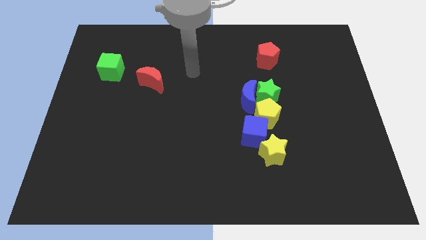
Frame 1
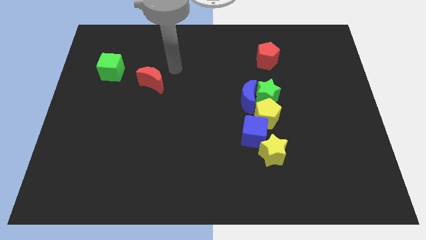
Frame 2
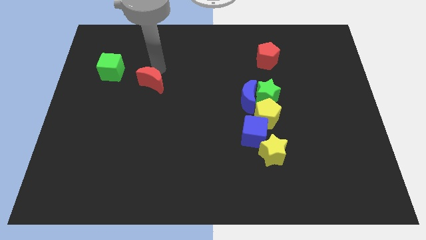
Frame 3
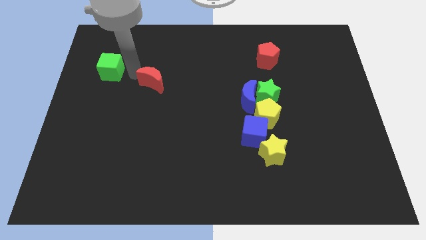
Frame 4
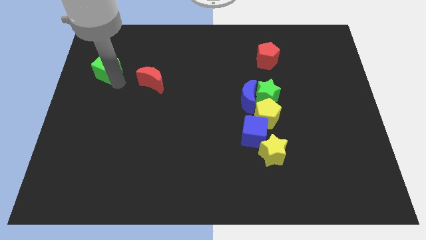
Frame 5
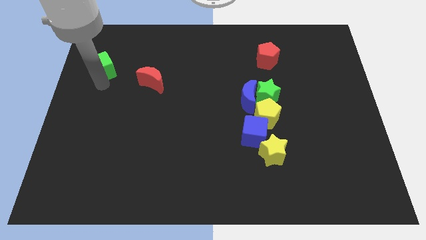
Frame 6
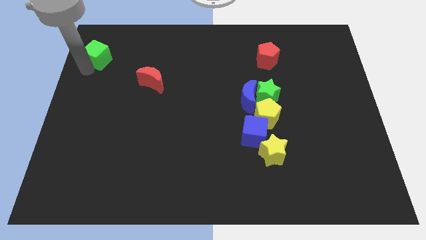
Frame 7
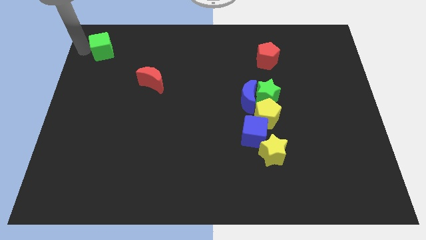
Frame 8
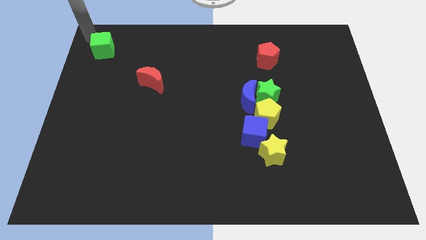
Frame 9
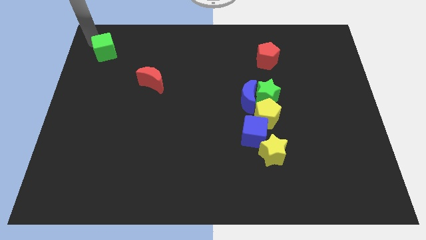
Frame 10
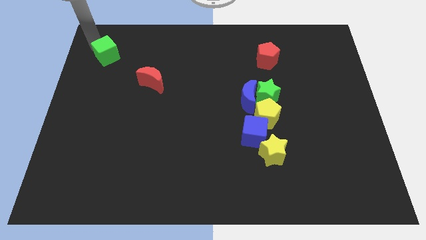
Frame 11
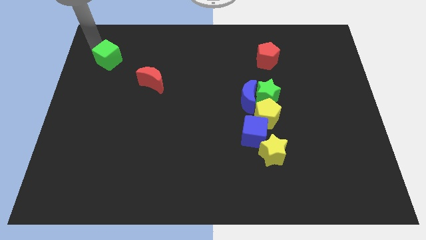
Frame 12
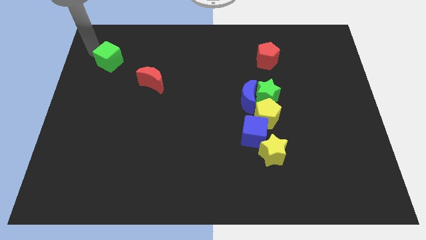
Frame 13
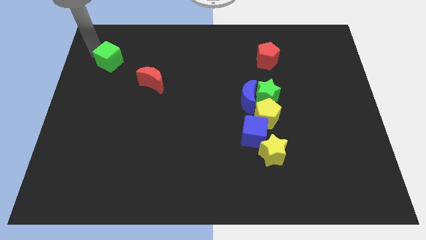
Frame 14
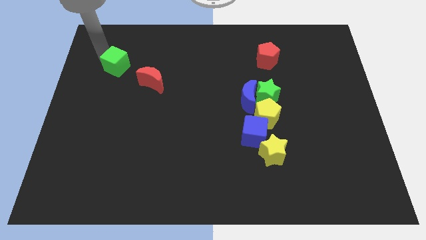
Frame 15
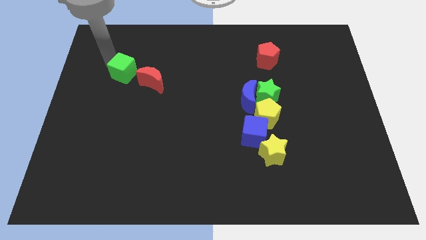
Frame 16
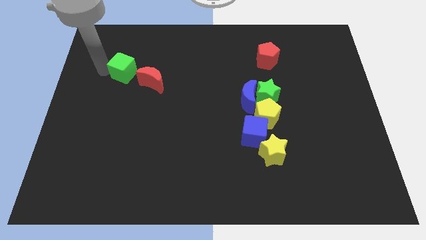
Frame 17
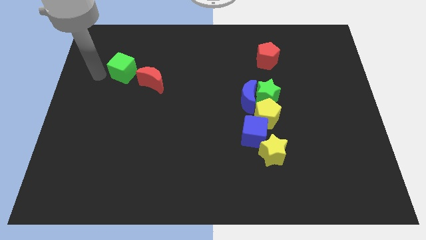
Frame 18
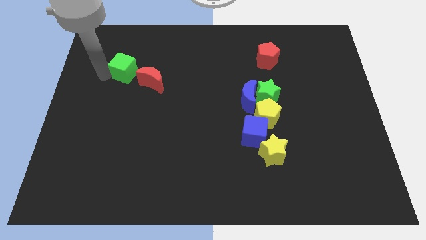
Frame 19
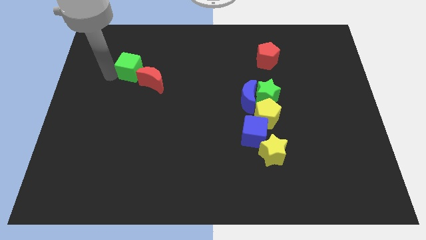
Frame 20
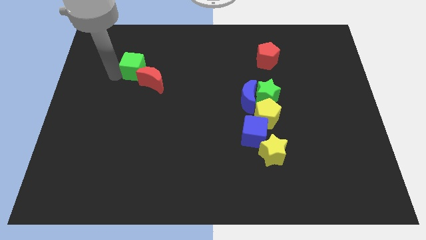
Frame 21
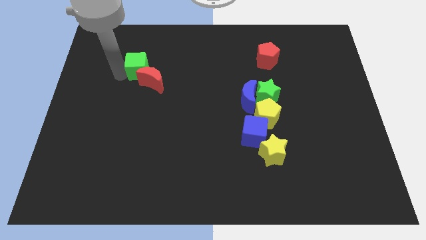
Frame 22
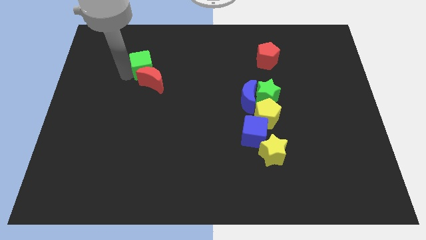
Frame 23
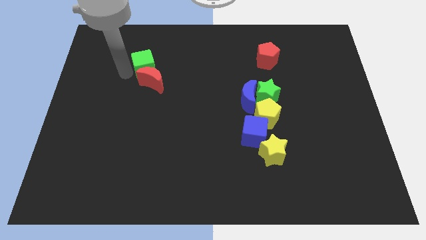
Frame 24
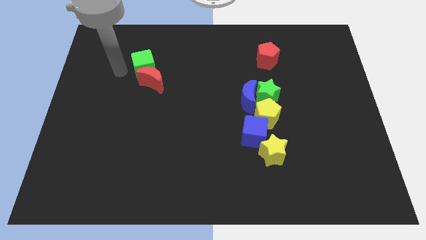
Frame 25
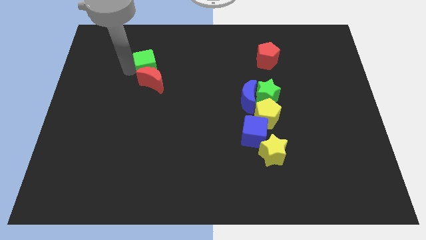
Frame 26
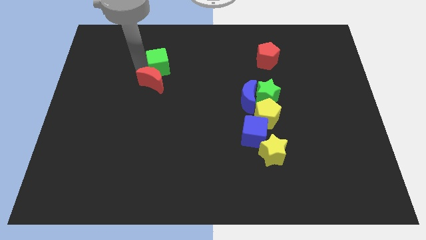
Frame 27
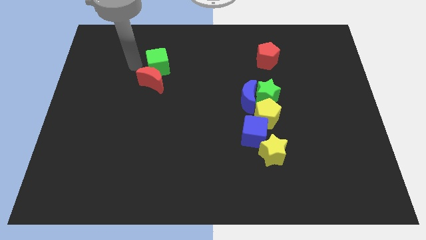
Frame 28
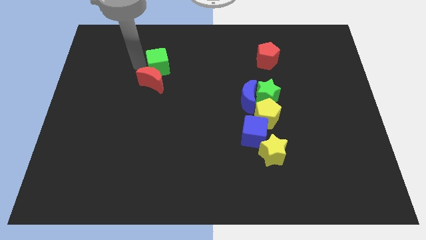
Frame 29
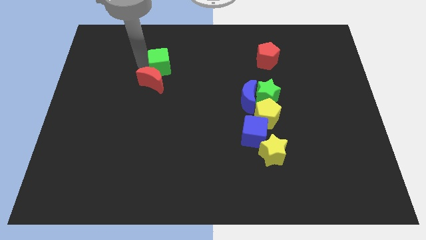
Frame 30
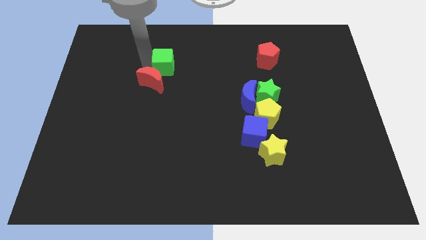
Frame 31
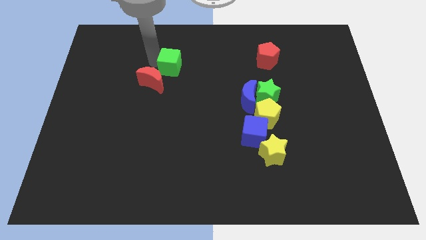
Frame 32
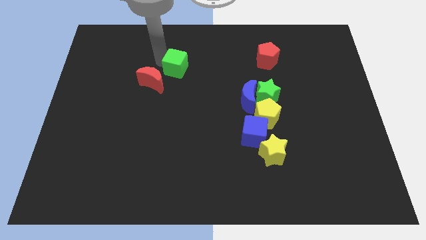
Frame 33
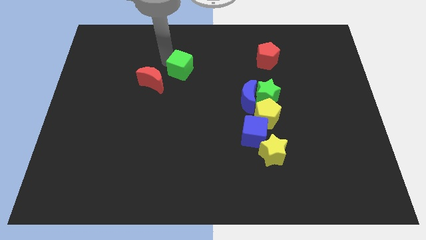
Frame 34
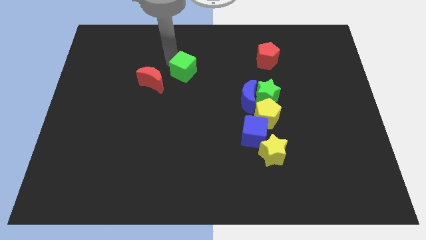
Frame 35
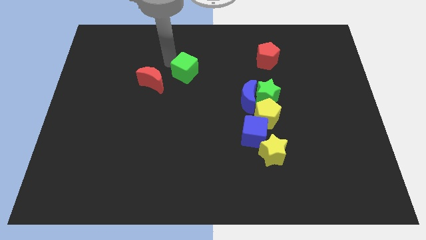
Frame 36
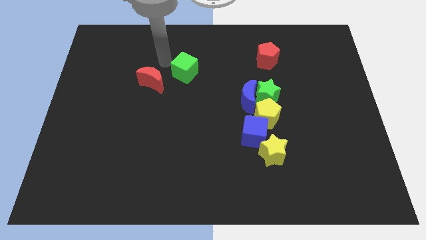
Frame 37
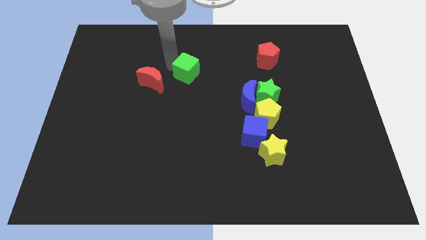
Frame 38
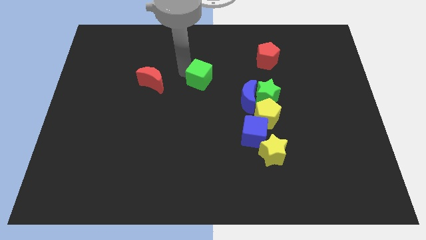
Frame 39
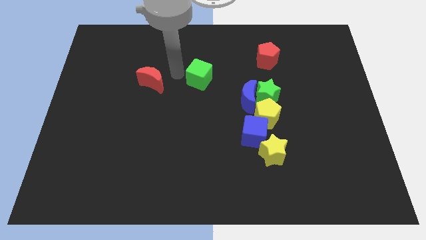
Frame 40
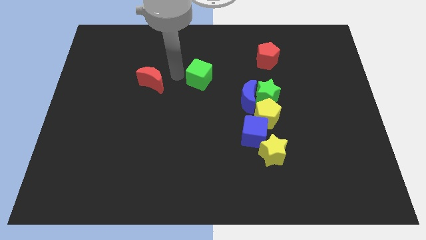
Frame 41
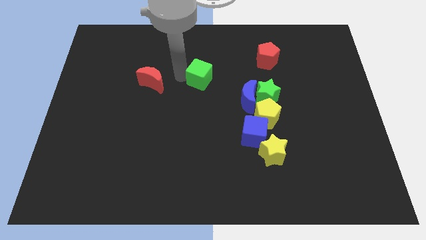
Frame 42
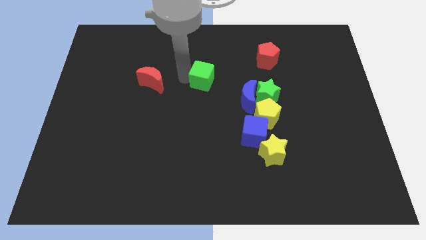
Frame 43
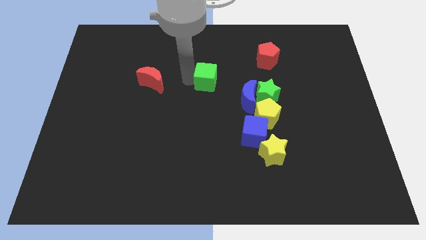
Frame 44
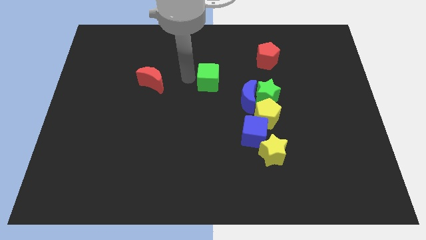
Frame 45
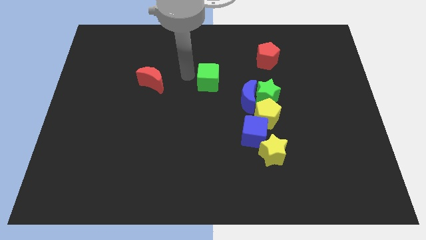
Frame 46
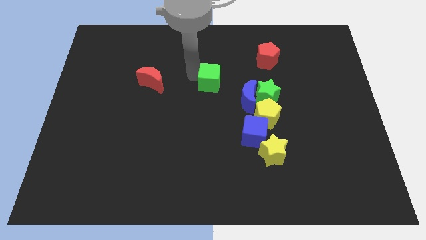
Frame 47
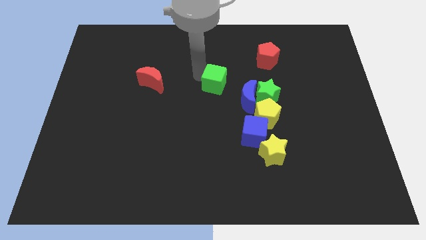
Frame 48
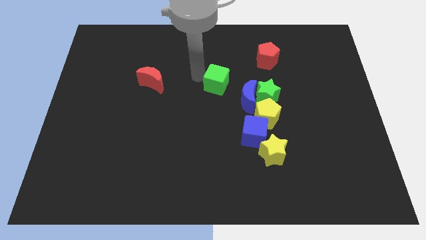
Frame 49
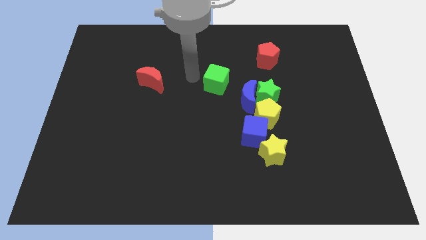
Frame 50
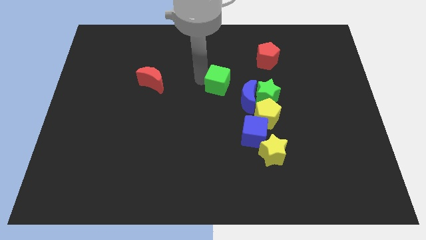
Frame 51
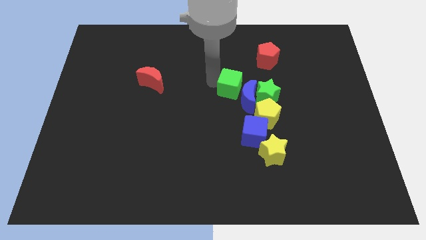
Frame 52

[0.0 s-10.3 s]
slide the green cube close to the blue moon

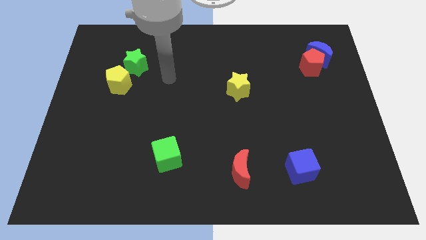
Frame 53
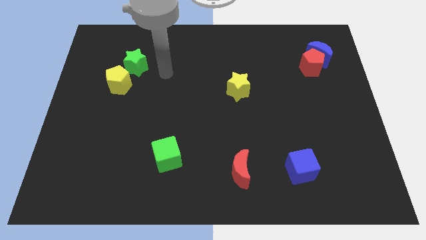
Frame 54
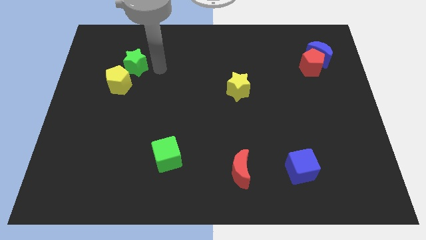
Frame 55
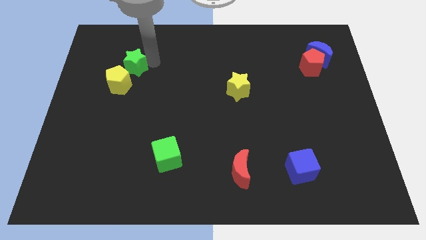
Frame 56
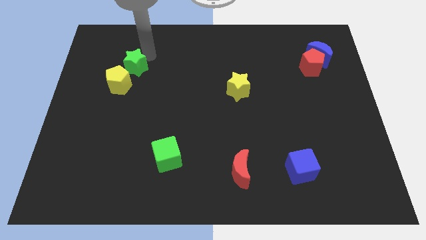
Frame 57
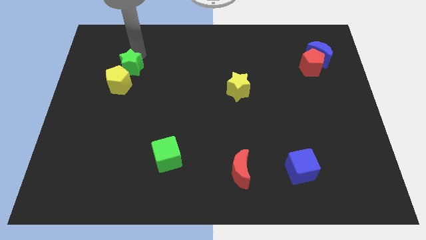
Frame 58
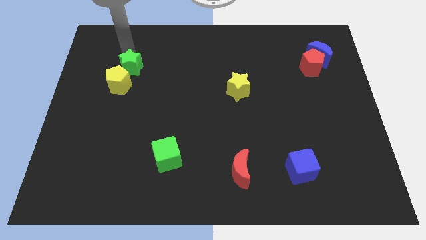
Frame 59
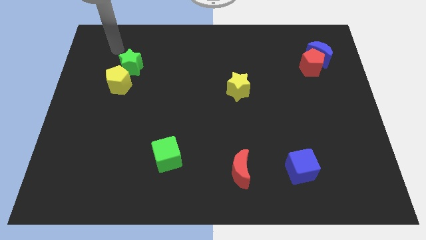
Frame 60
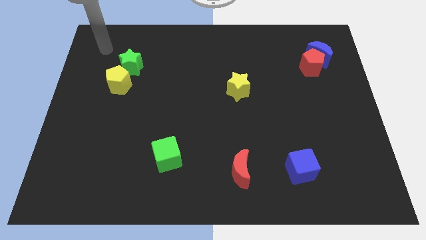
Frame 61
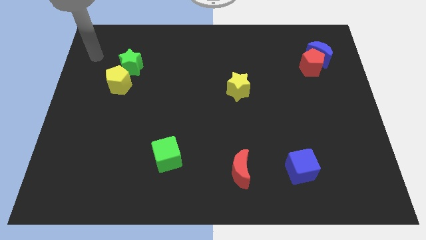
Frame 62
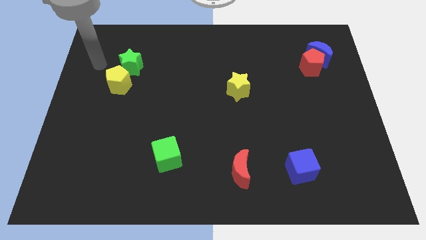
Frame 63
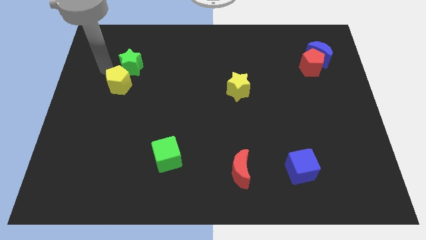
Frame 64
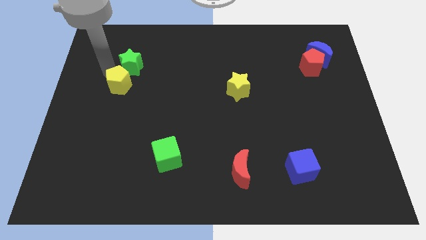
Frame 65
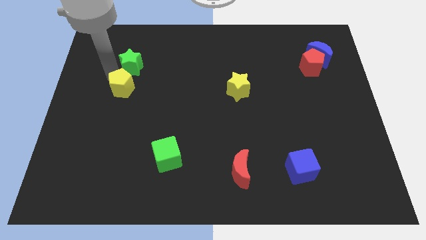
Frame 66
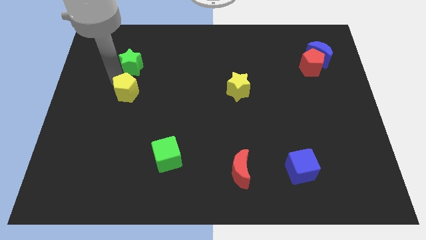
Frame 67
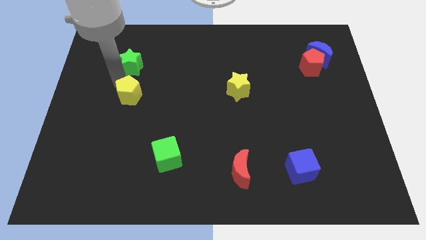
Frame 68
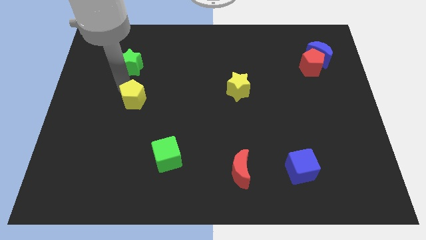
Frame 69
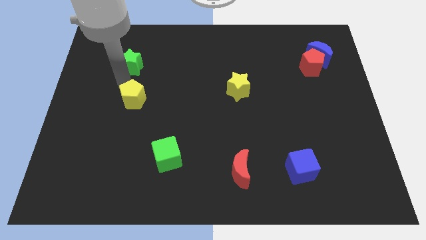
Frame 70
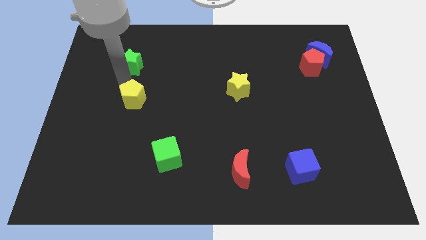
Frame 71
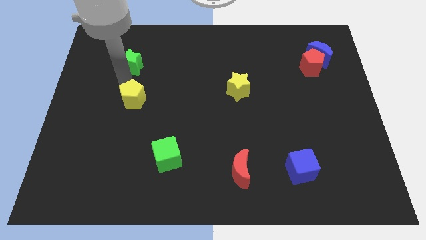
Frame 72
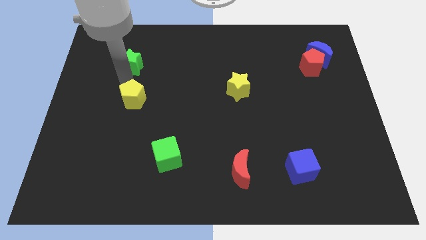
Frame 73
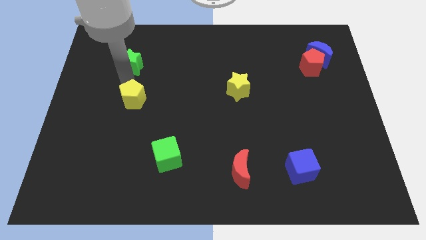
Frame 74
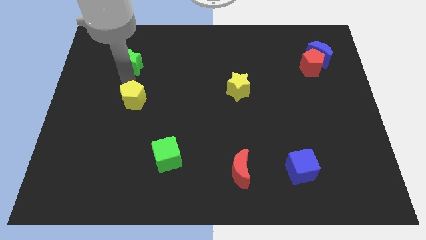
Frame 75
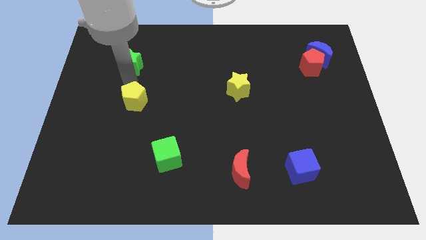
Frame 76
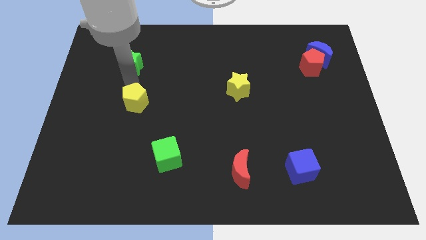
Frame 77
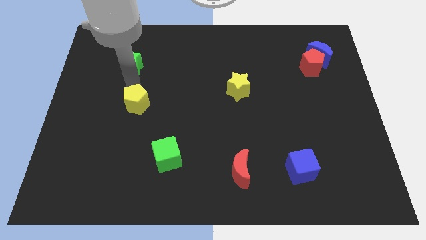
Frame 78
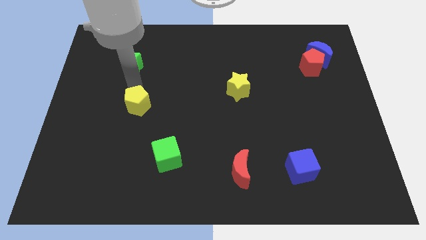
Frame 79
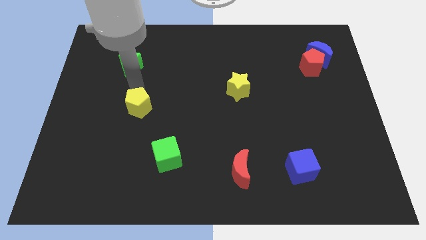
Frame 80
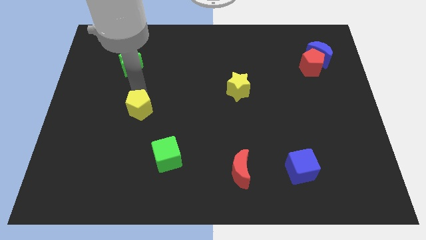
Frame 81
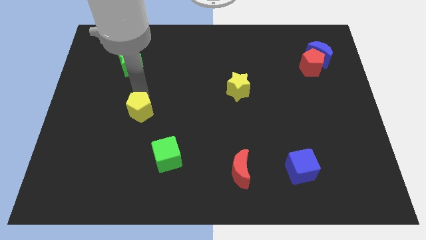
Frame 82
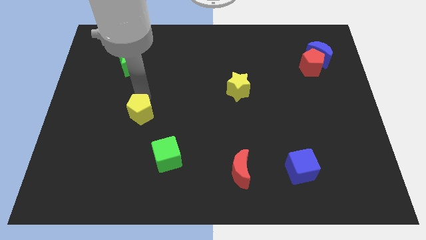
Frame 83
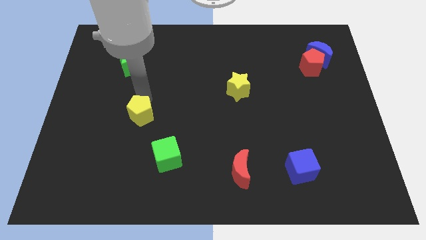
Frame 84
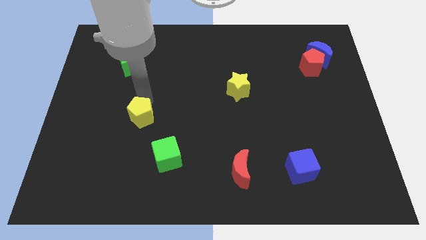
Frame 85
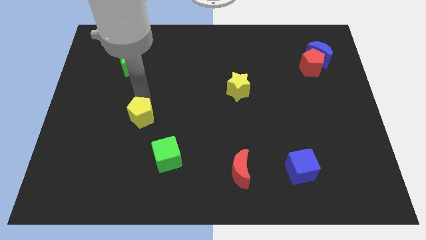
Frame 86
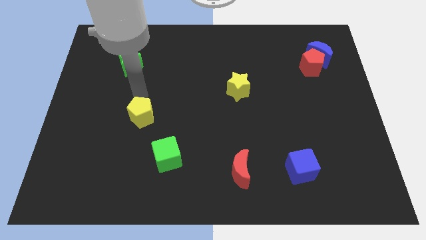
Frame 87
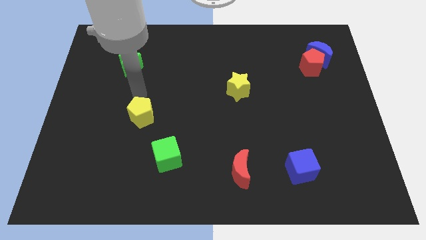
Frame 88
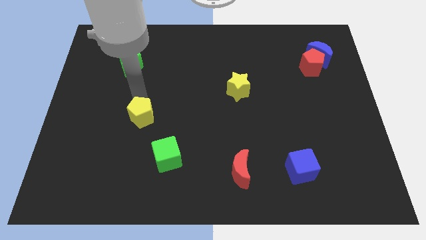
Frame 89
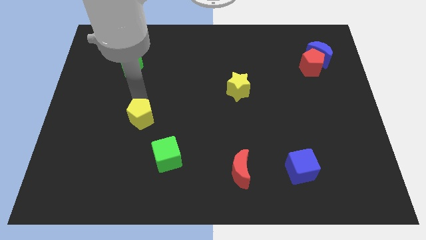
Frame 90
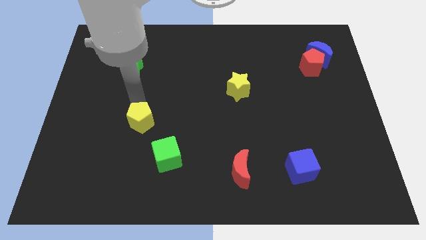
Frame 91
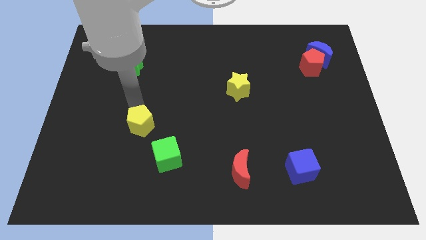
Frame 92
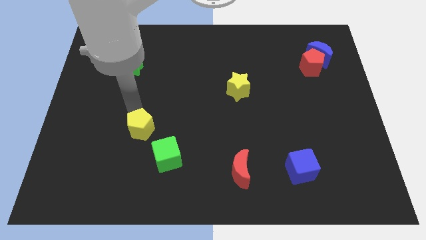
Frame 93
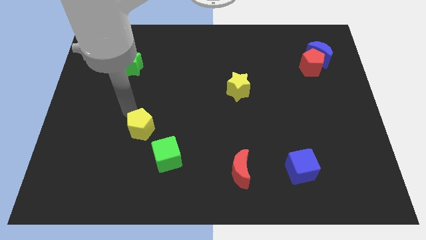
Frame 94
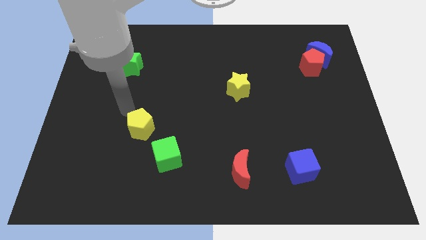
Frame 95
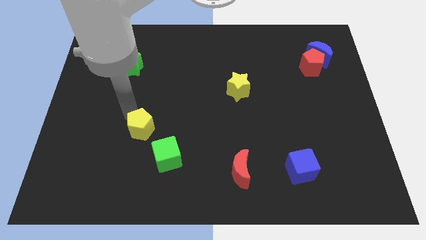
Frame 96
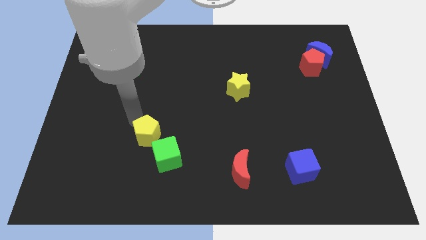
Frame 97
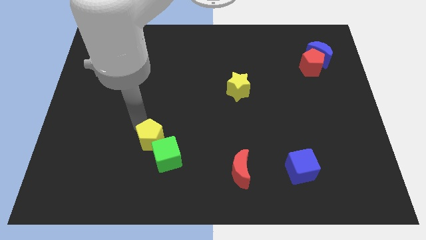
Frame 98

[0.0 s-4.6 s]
push the yellow pentagon to the green cube
